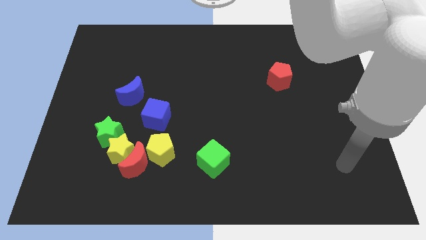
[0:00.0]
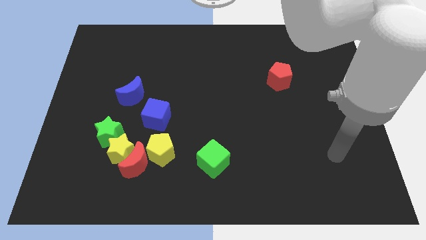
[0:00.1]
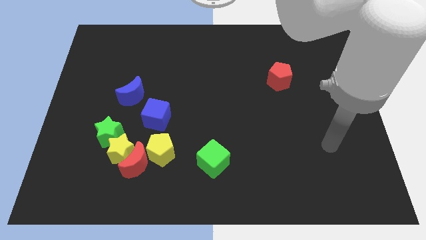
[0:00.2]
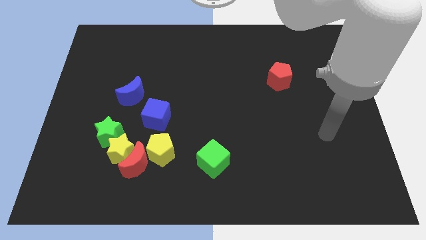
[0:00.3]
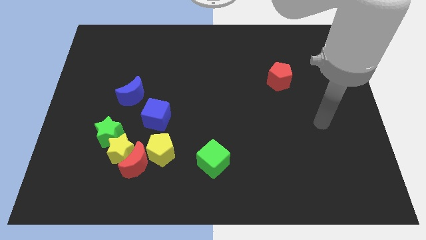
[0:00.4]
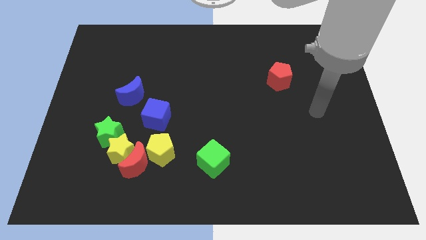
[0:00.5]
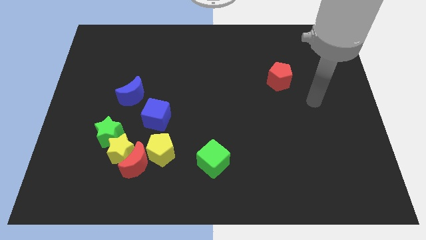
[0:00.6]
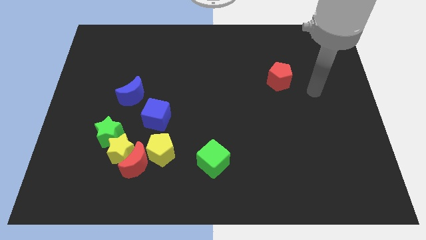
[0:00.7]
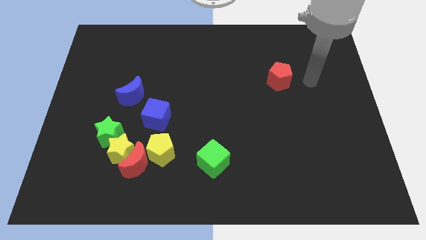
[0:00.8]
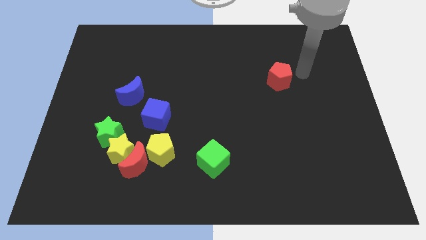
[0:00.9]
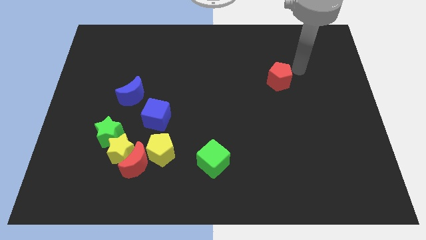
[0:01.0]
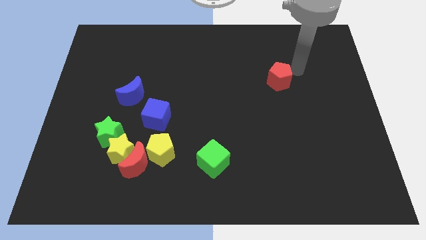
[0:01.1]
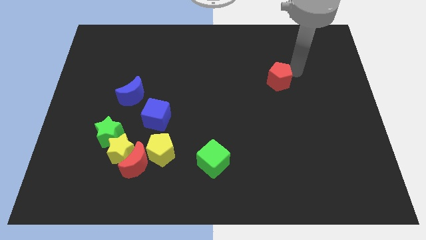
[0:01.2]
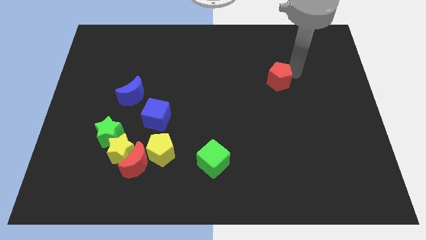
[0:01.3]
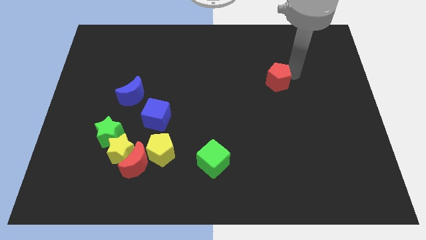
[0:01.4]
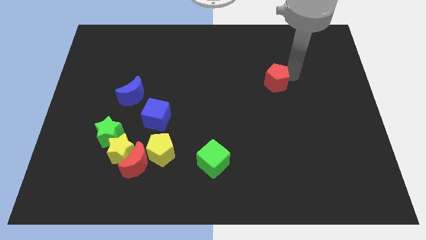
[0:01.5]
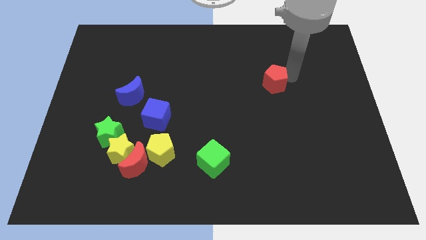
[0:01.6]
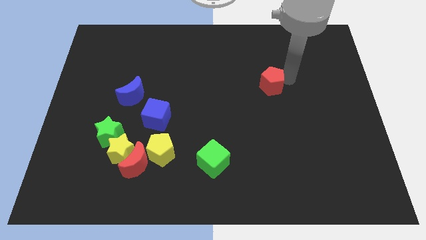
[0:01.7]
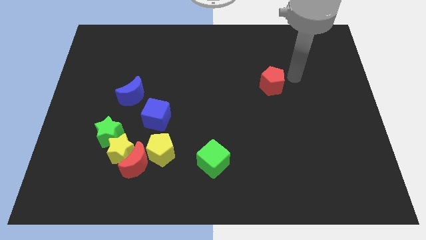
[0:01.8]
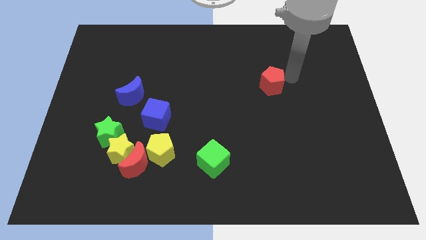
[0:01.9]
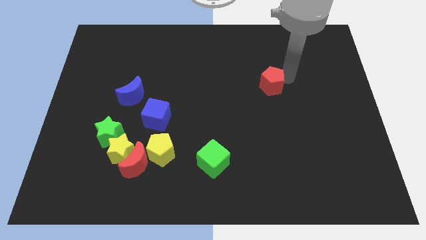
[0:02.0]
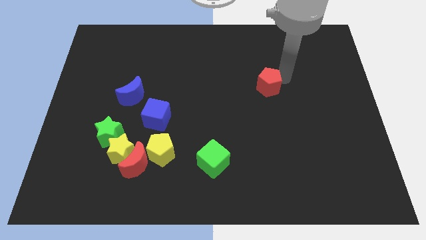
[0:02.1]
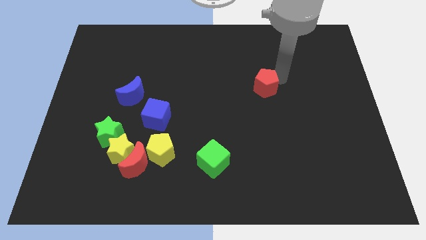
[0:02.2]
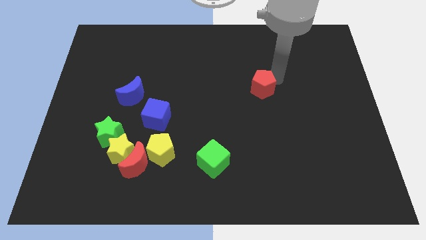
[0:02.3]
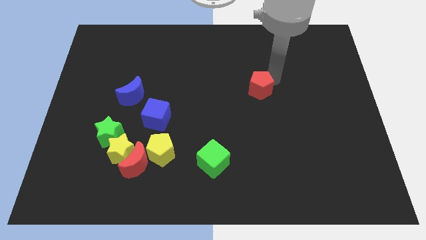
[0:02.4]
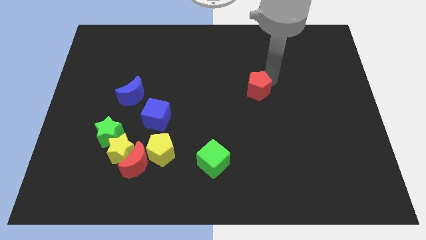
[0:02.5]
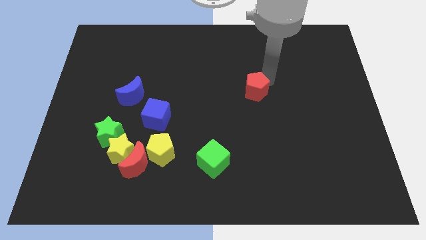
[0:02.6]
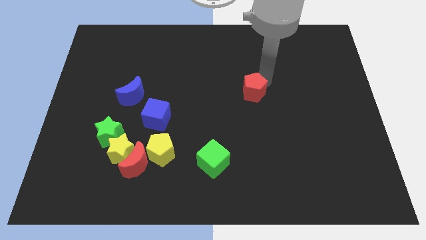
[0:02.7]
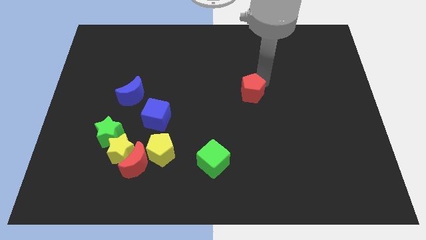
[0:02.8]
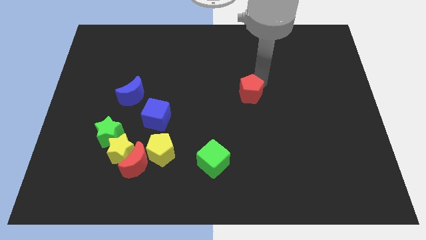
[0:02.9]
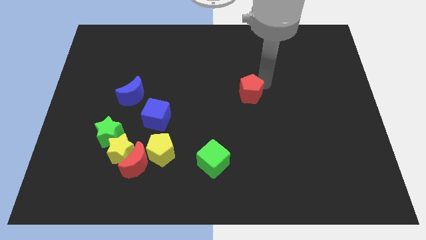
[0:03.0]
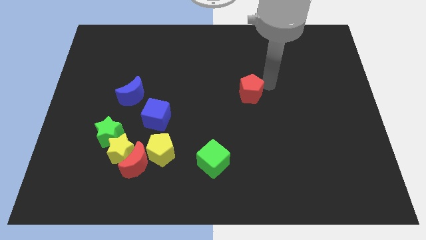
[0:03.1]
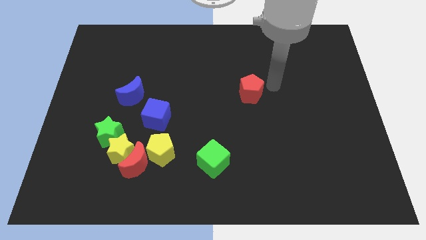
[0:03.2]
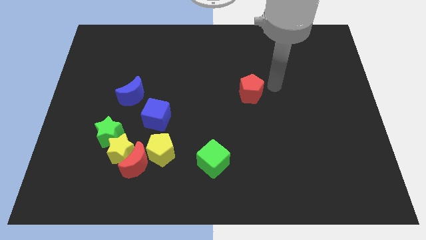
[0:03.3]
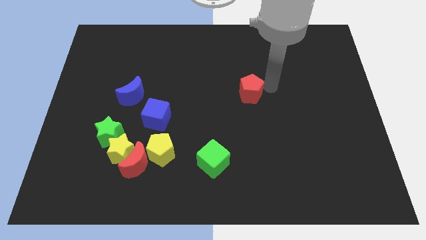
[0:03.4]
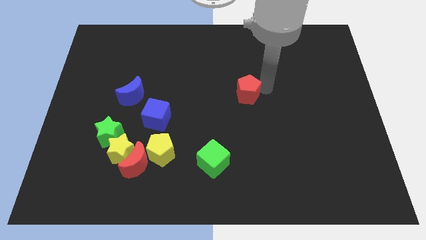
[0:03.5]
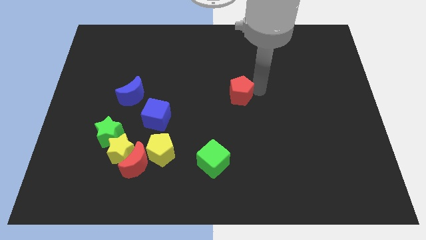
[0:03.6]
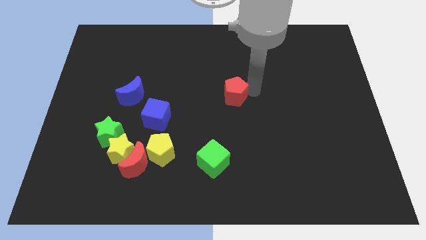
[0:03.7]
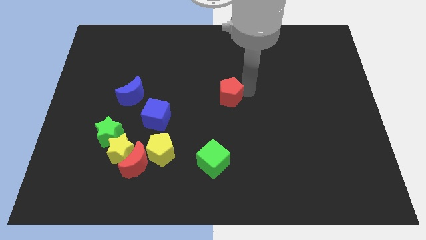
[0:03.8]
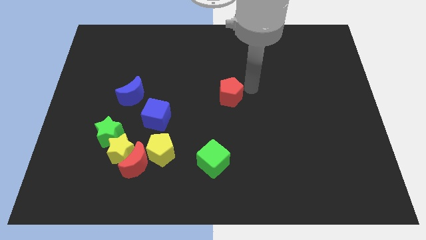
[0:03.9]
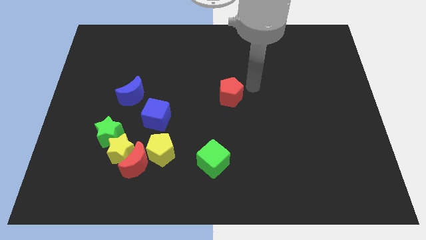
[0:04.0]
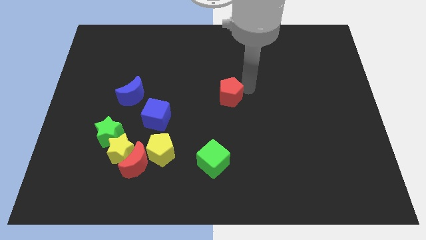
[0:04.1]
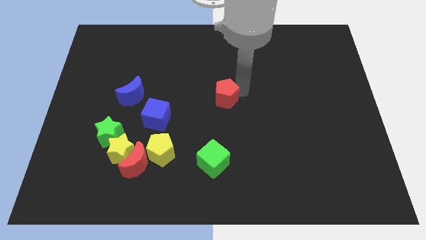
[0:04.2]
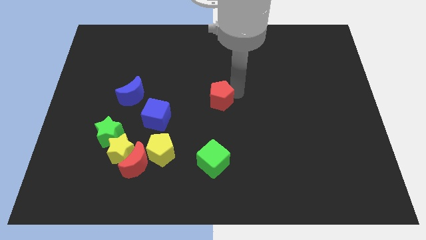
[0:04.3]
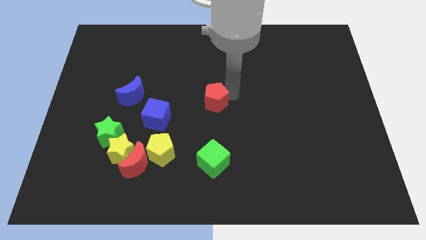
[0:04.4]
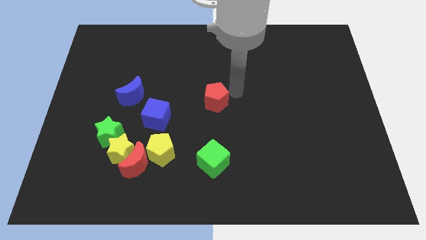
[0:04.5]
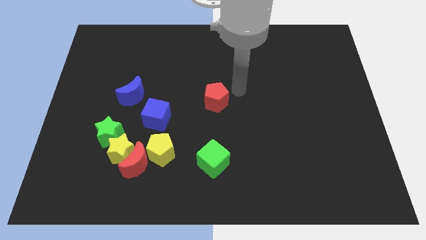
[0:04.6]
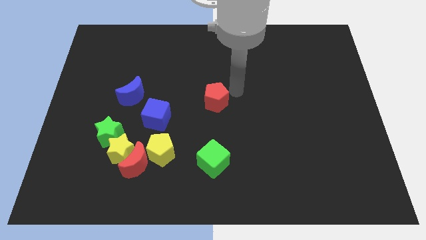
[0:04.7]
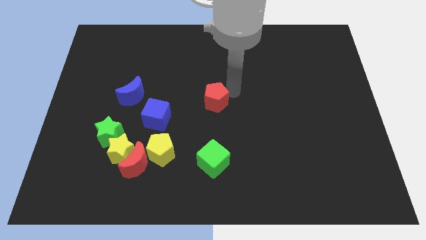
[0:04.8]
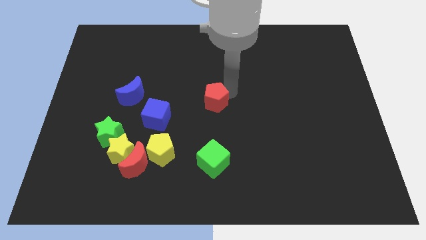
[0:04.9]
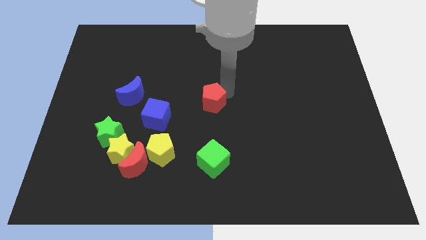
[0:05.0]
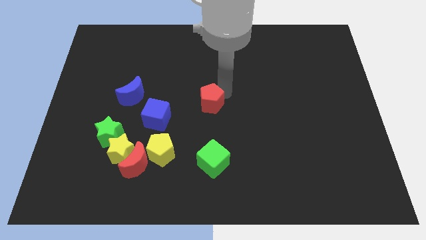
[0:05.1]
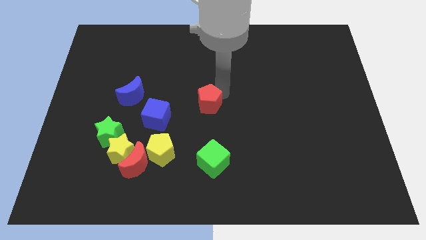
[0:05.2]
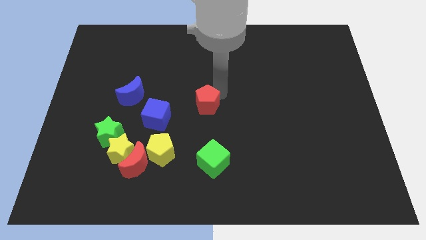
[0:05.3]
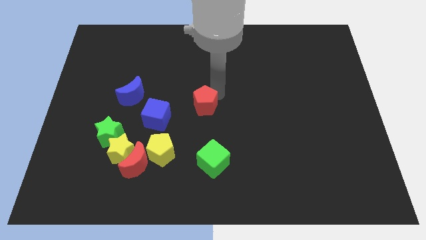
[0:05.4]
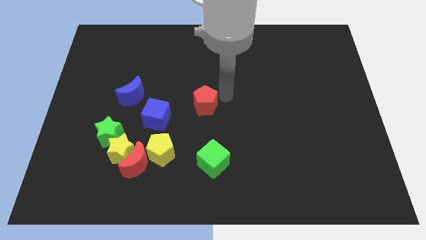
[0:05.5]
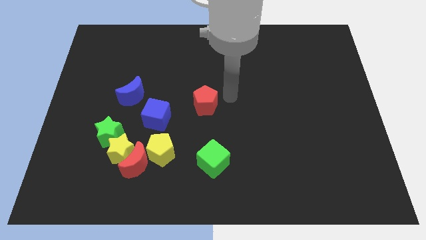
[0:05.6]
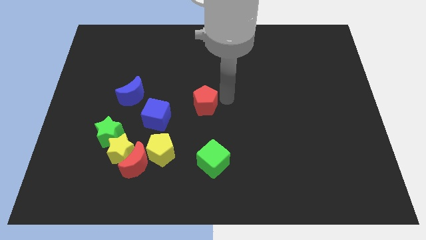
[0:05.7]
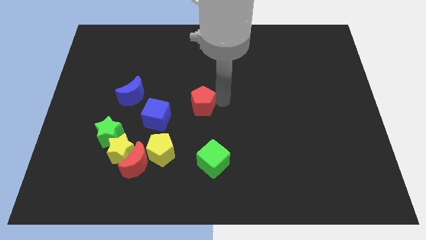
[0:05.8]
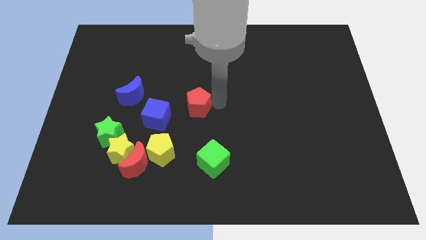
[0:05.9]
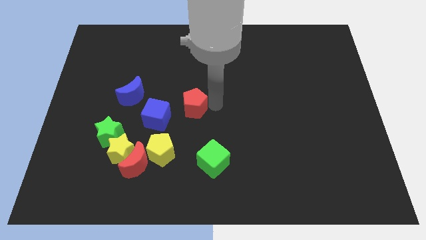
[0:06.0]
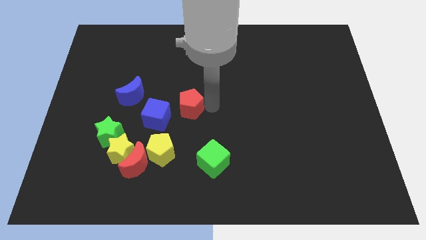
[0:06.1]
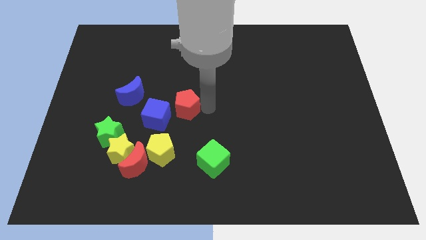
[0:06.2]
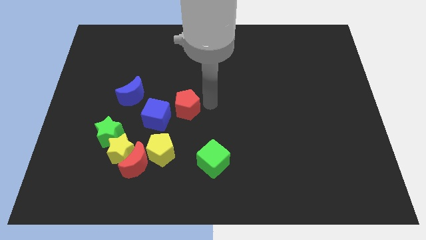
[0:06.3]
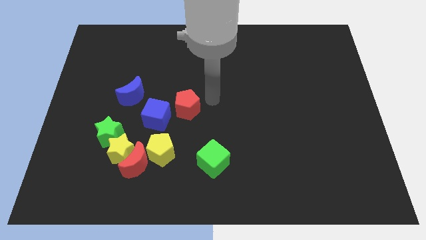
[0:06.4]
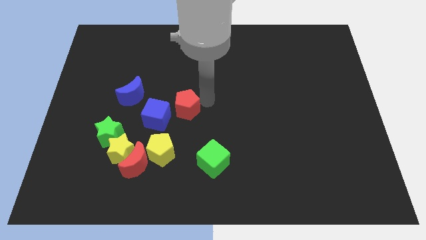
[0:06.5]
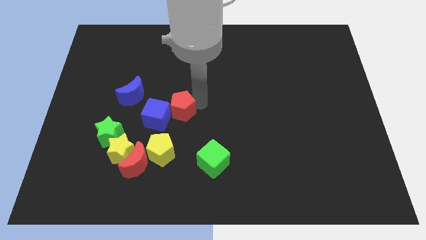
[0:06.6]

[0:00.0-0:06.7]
put the red pentagon close to the blue cube

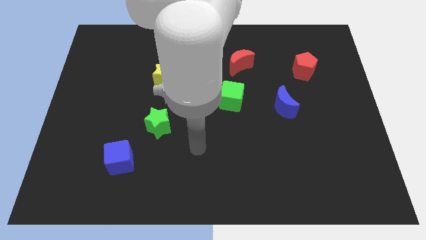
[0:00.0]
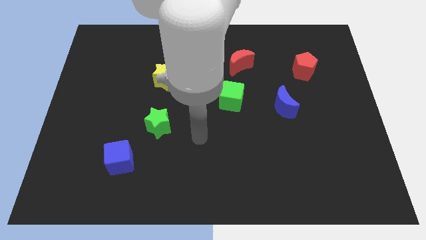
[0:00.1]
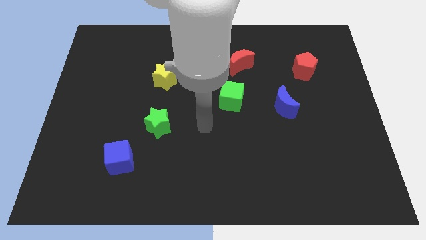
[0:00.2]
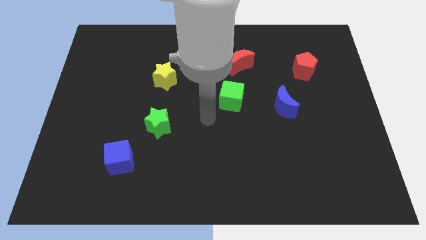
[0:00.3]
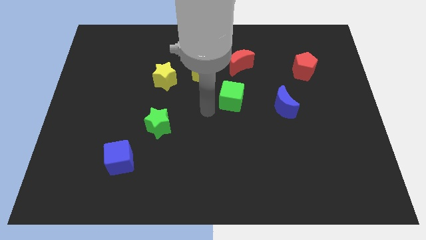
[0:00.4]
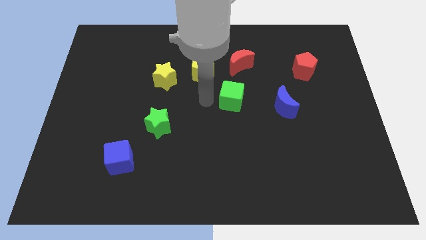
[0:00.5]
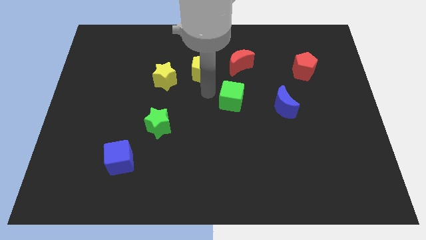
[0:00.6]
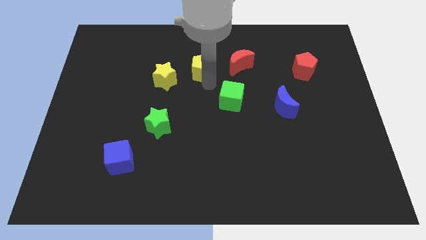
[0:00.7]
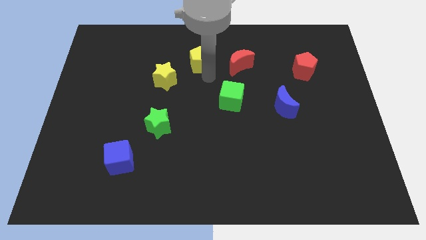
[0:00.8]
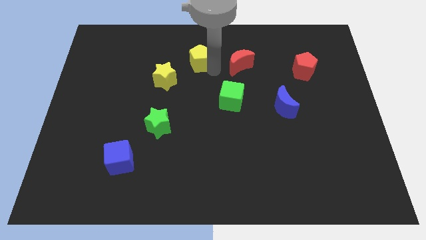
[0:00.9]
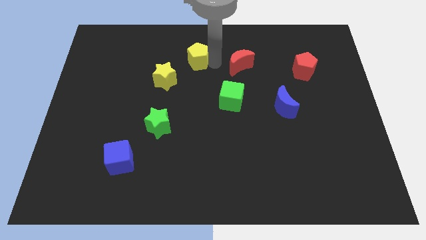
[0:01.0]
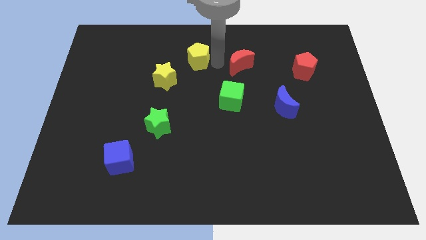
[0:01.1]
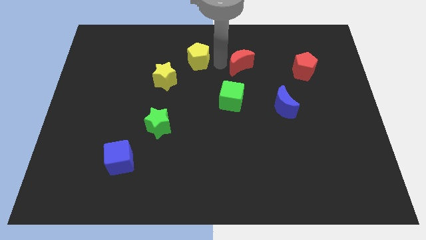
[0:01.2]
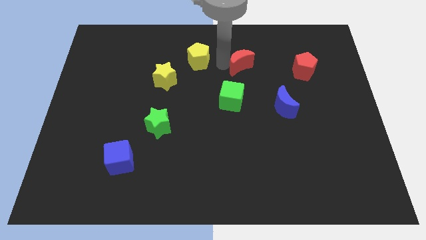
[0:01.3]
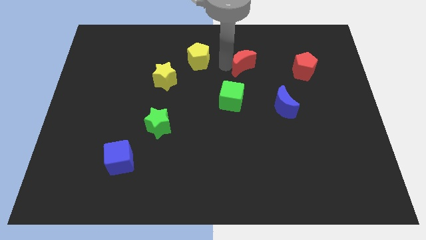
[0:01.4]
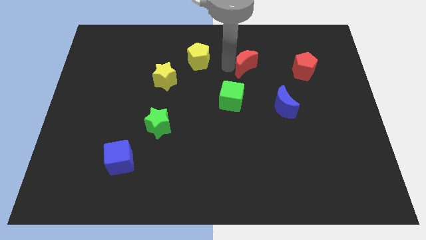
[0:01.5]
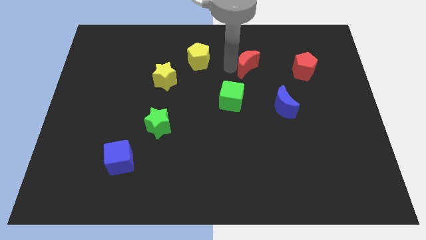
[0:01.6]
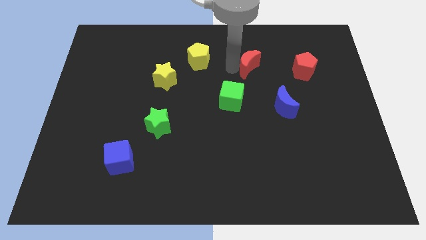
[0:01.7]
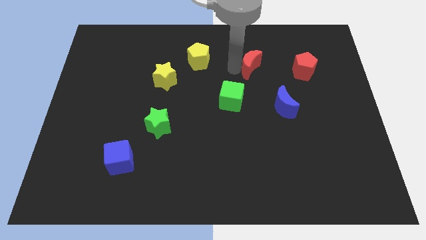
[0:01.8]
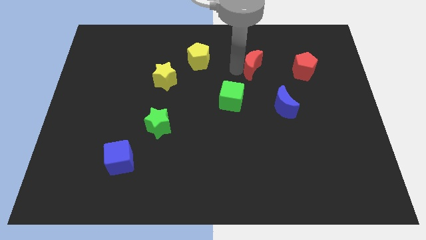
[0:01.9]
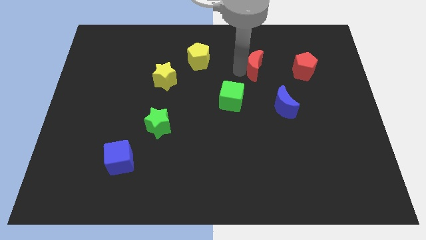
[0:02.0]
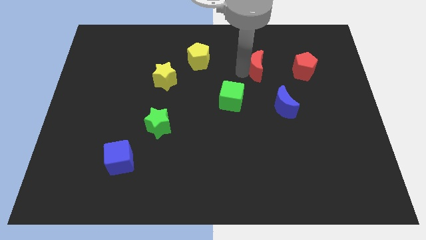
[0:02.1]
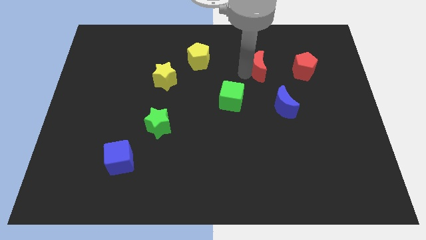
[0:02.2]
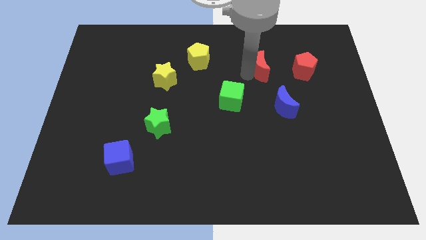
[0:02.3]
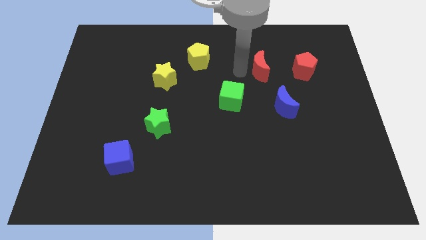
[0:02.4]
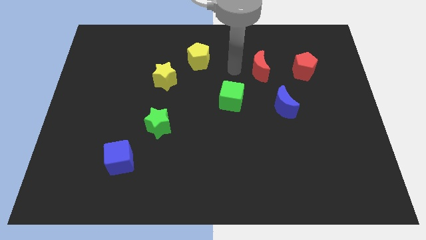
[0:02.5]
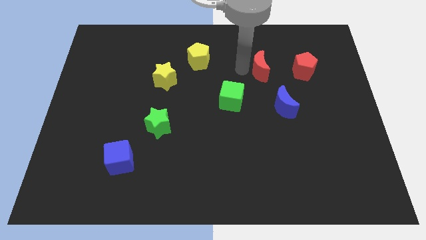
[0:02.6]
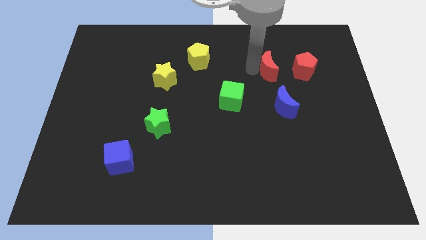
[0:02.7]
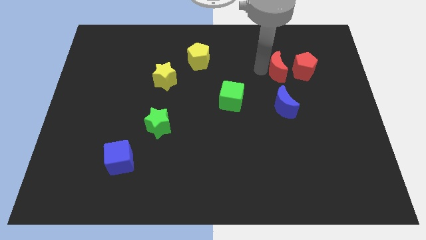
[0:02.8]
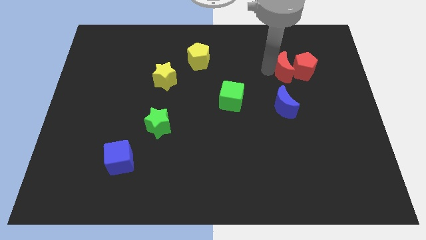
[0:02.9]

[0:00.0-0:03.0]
move the red moon to the red pentagon
